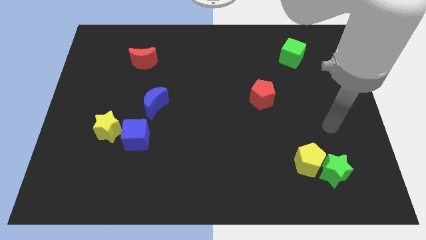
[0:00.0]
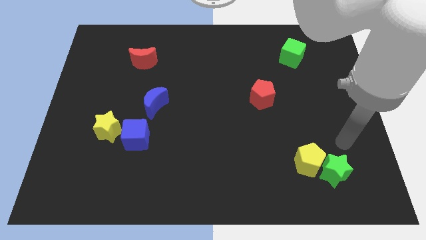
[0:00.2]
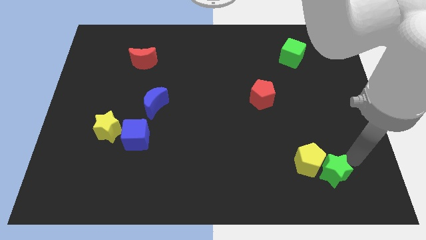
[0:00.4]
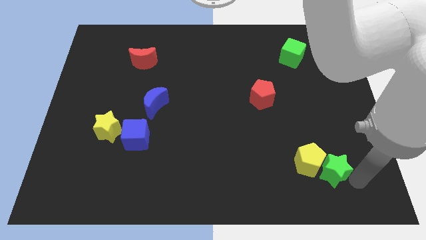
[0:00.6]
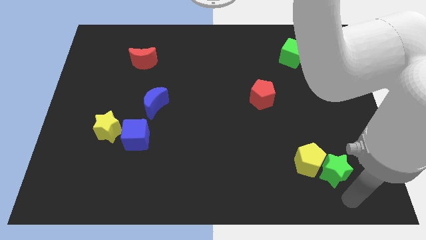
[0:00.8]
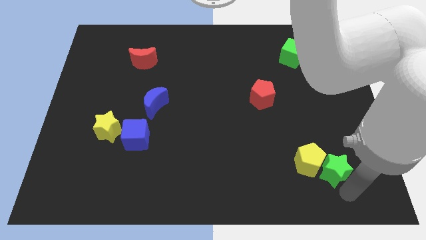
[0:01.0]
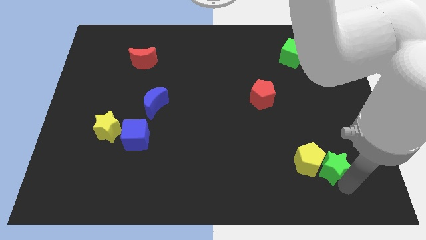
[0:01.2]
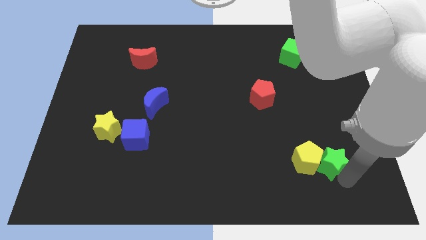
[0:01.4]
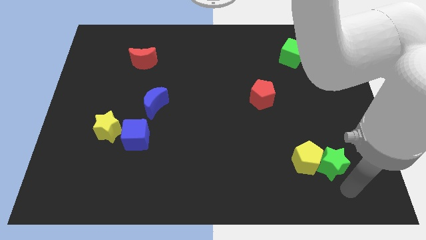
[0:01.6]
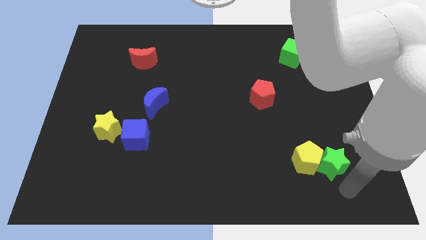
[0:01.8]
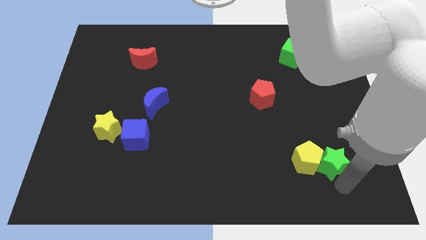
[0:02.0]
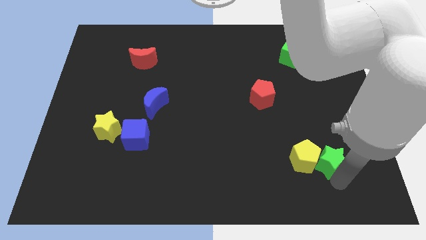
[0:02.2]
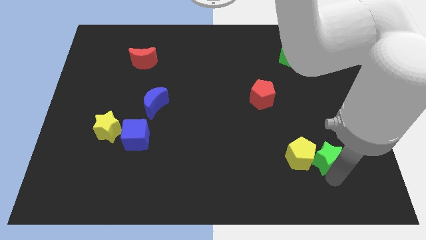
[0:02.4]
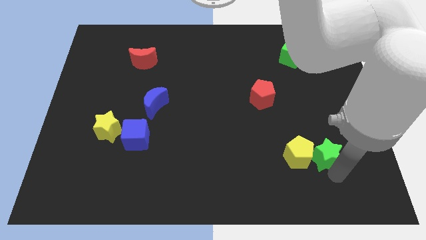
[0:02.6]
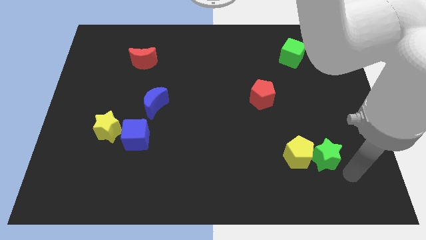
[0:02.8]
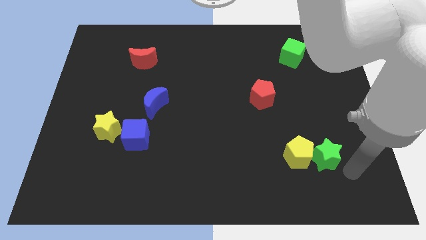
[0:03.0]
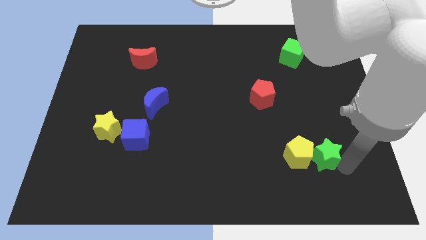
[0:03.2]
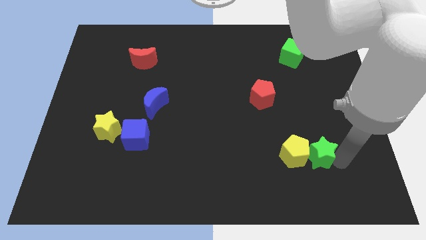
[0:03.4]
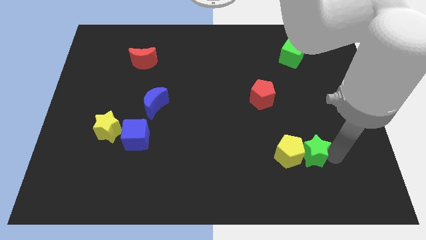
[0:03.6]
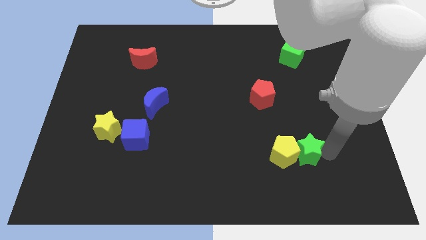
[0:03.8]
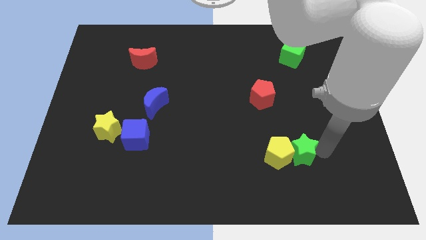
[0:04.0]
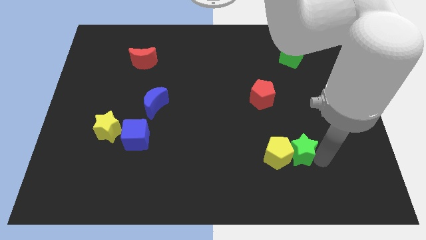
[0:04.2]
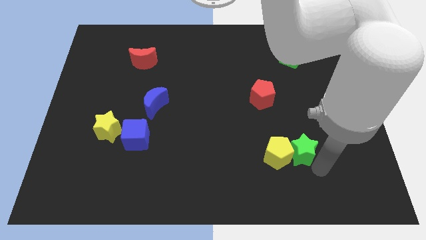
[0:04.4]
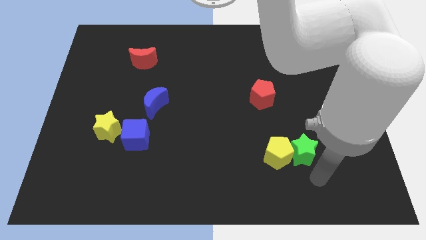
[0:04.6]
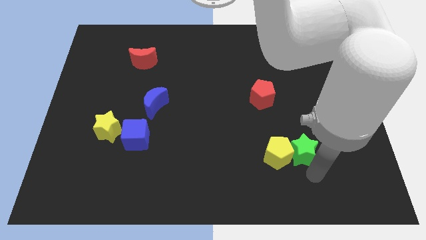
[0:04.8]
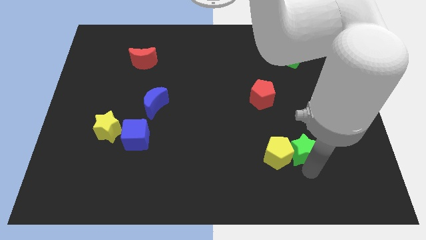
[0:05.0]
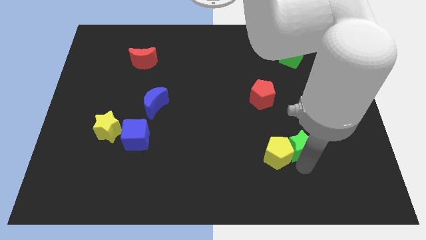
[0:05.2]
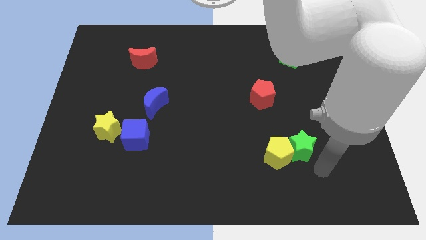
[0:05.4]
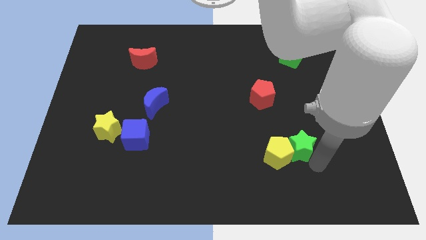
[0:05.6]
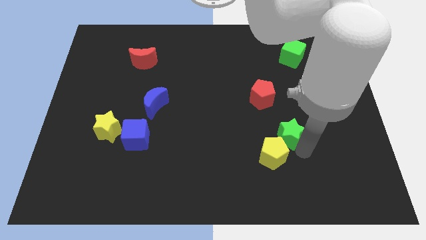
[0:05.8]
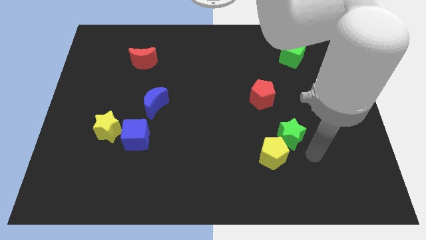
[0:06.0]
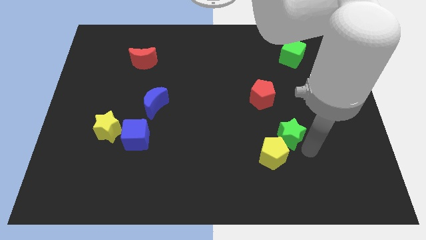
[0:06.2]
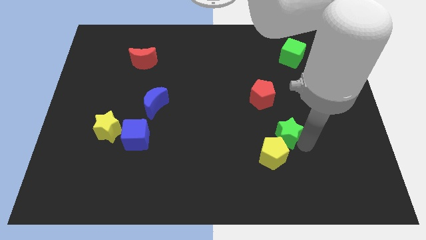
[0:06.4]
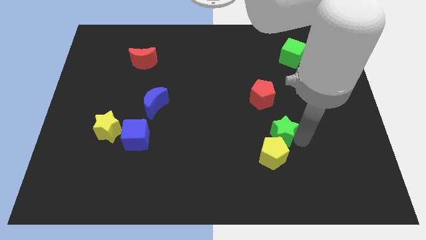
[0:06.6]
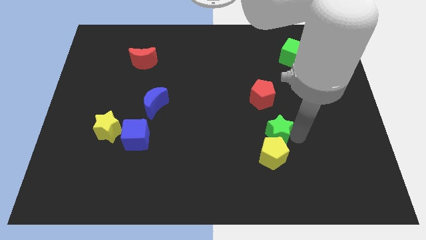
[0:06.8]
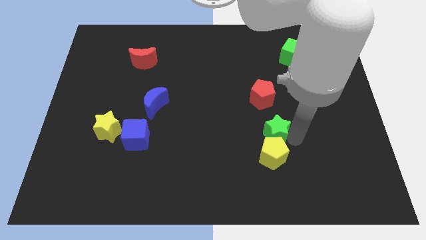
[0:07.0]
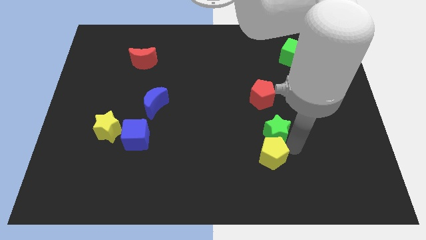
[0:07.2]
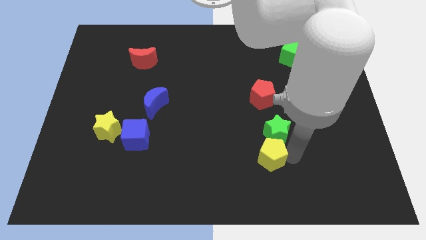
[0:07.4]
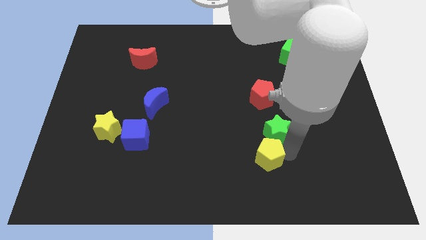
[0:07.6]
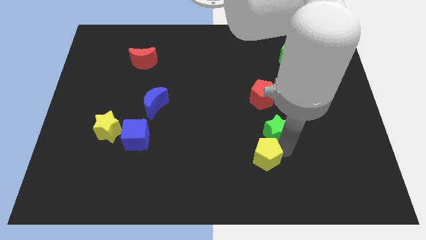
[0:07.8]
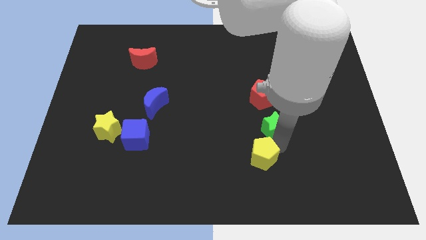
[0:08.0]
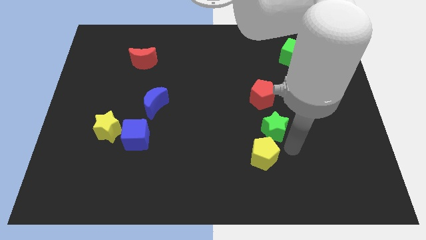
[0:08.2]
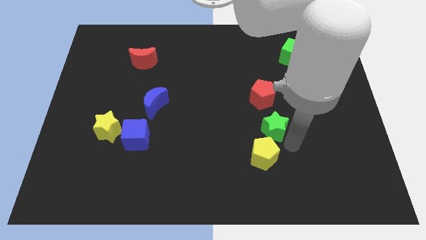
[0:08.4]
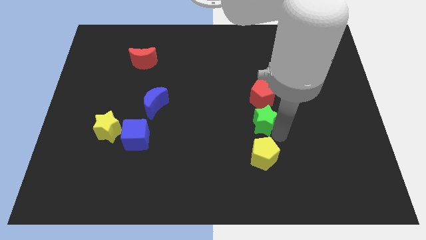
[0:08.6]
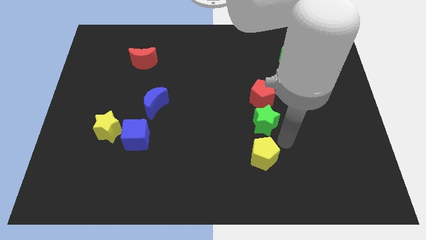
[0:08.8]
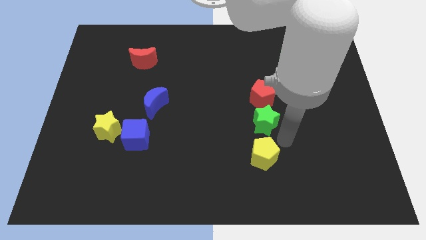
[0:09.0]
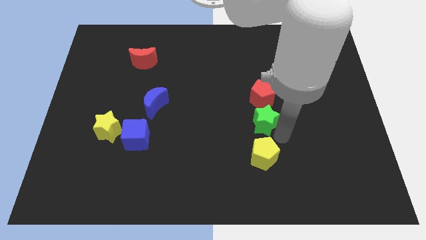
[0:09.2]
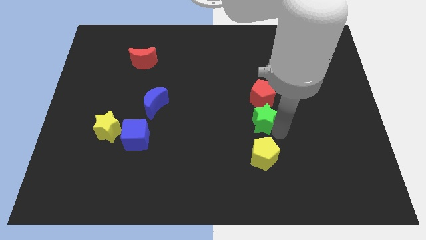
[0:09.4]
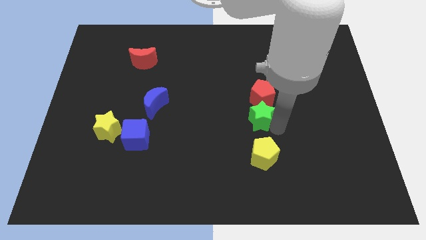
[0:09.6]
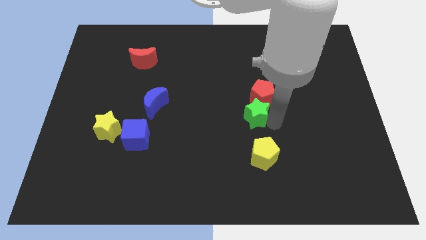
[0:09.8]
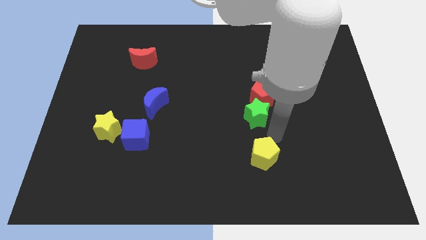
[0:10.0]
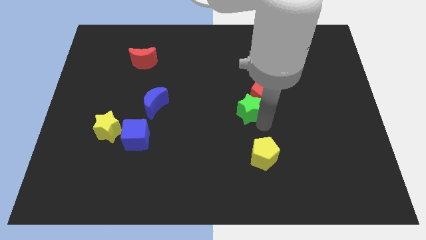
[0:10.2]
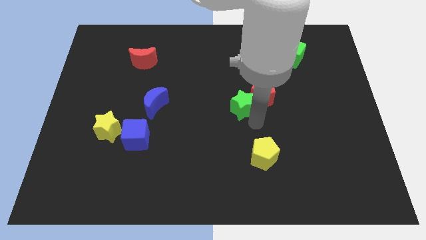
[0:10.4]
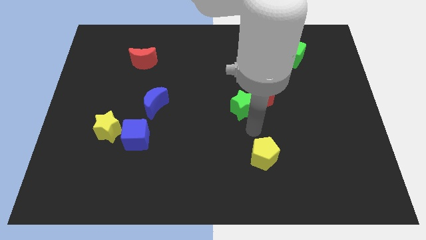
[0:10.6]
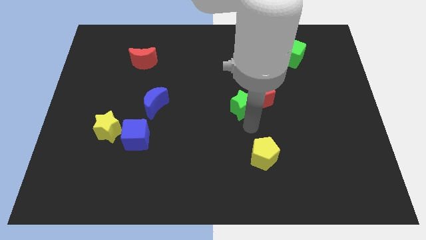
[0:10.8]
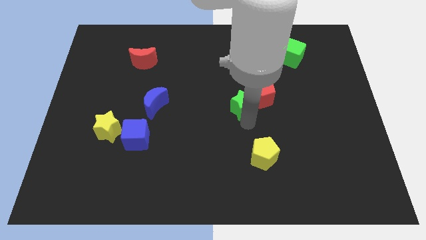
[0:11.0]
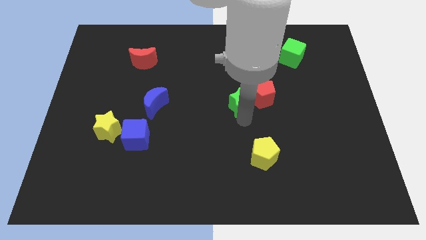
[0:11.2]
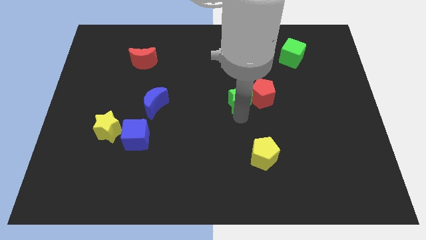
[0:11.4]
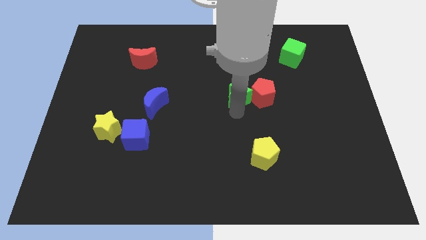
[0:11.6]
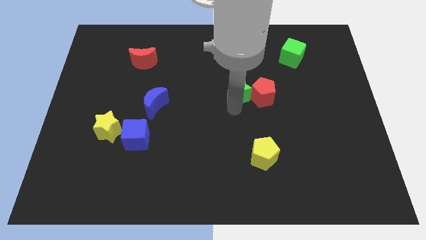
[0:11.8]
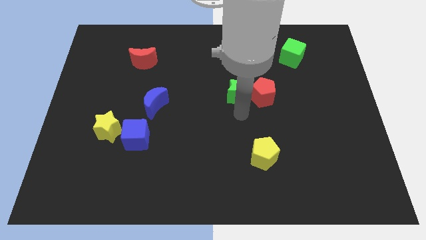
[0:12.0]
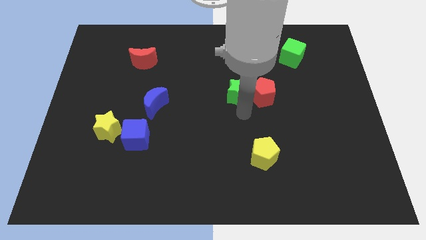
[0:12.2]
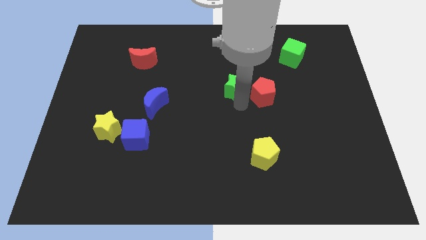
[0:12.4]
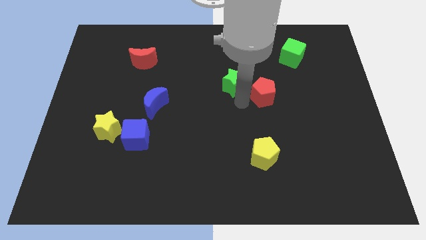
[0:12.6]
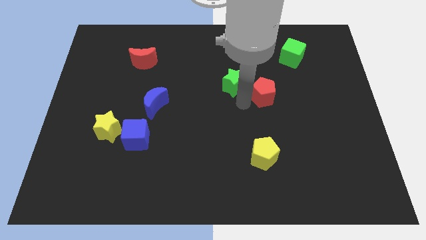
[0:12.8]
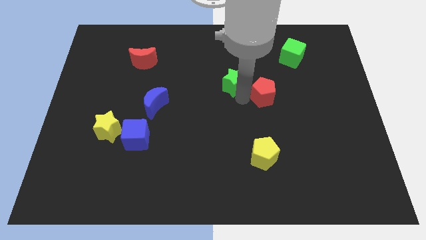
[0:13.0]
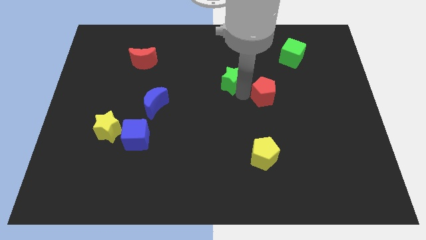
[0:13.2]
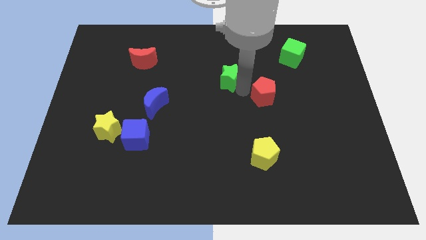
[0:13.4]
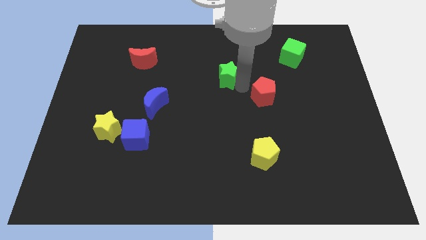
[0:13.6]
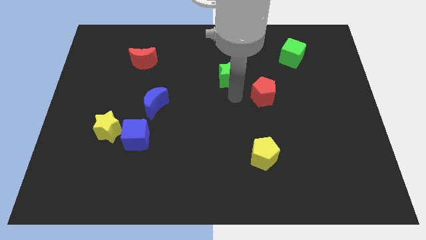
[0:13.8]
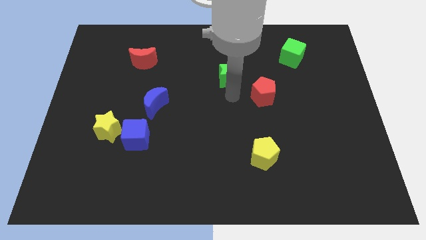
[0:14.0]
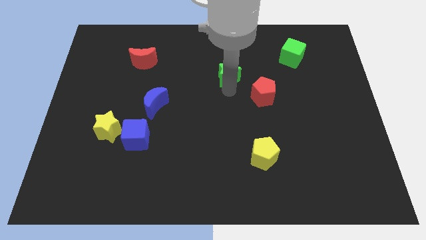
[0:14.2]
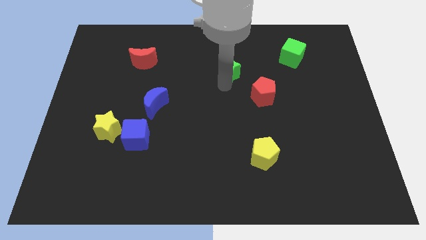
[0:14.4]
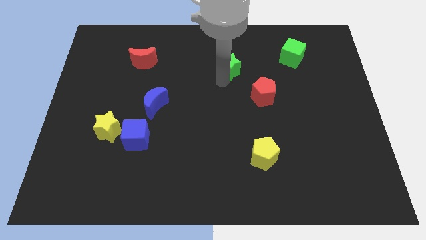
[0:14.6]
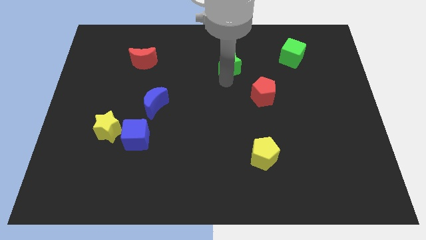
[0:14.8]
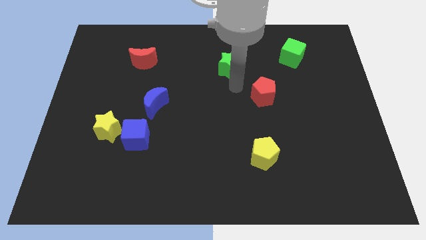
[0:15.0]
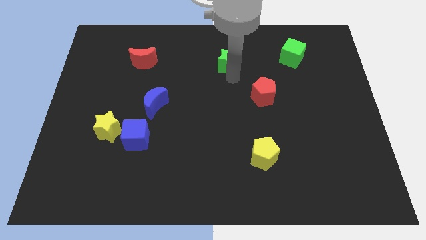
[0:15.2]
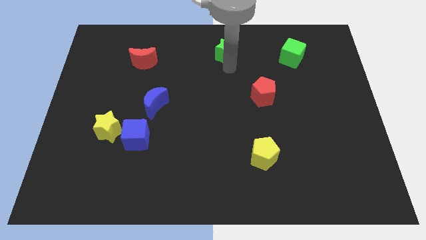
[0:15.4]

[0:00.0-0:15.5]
move the green star to the top side
